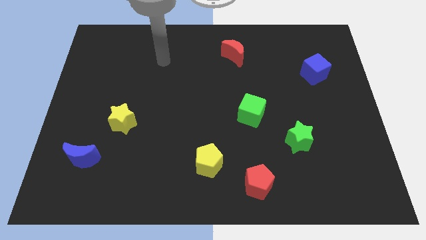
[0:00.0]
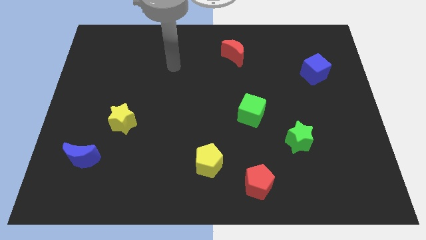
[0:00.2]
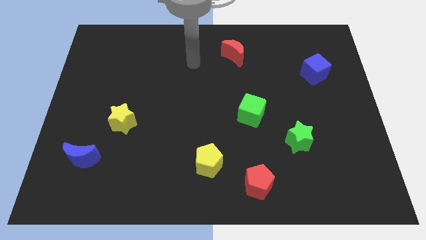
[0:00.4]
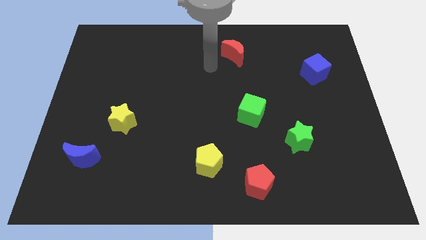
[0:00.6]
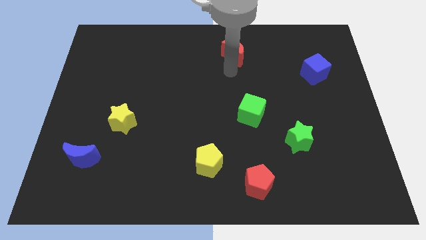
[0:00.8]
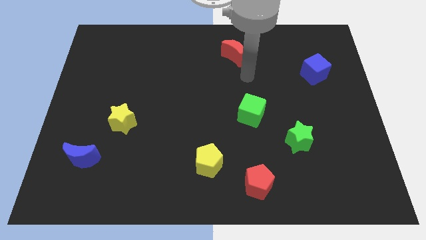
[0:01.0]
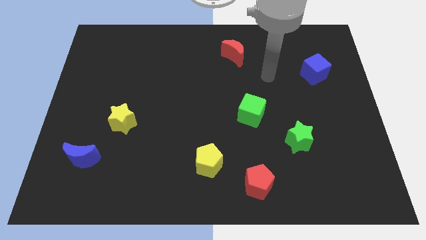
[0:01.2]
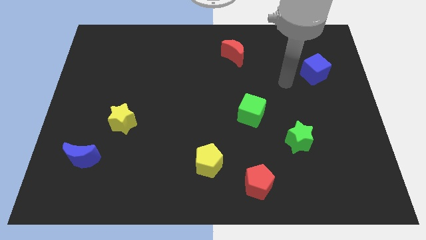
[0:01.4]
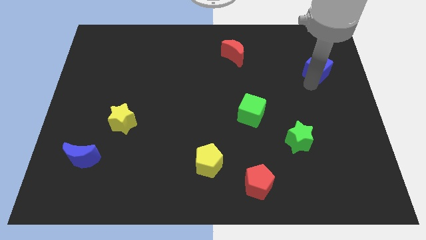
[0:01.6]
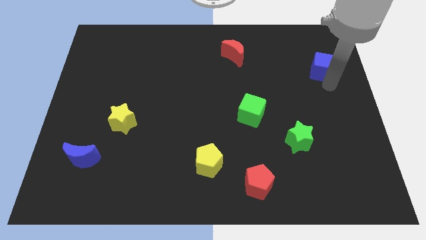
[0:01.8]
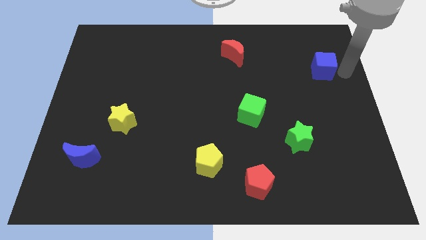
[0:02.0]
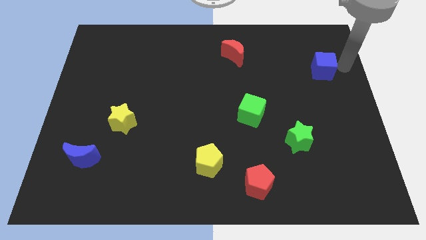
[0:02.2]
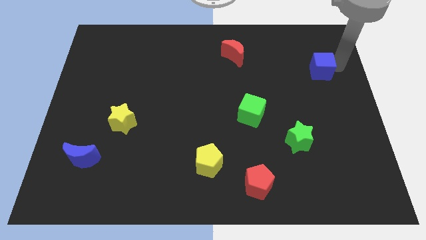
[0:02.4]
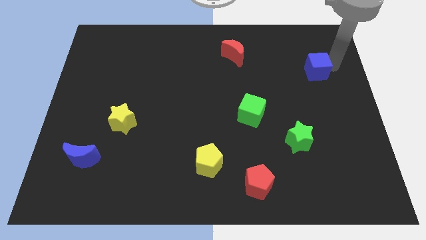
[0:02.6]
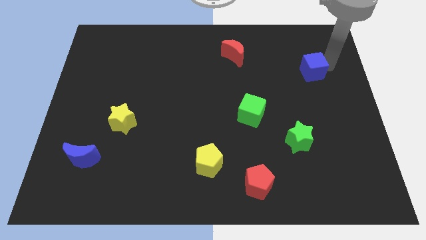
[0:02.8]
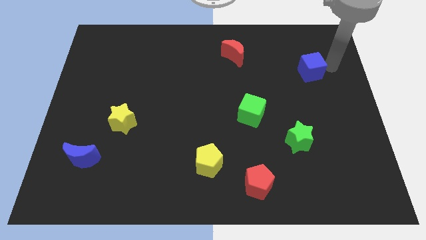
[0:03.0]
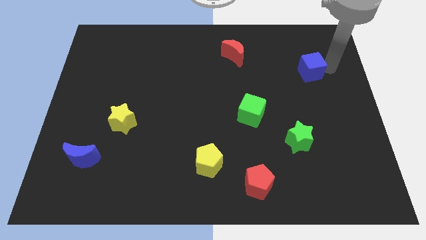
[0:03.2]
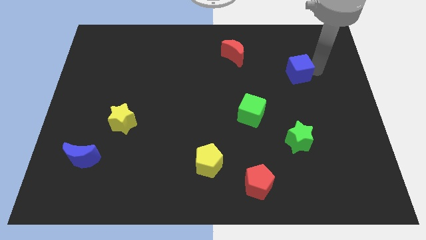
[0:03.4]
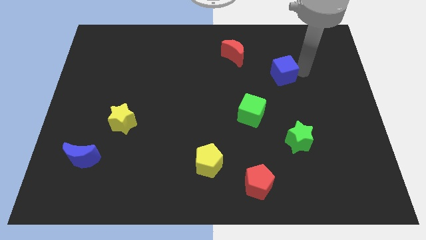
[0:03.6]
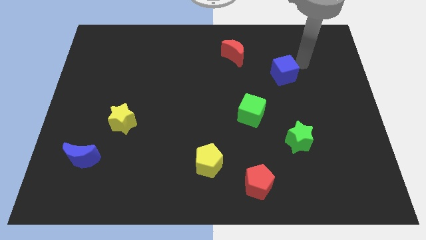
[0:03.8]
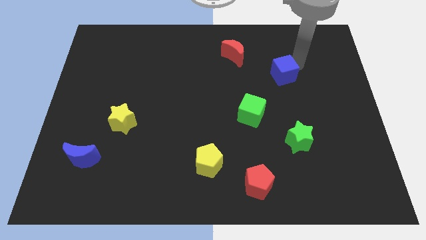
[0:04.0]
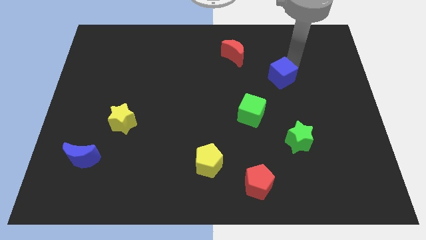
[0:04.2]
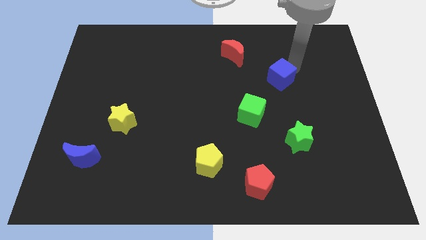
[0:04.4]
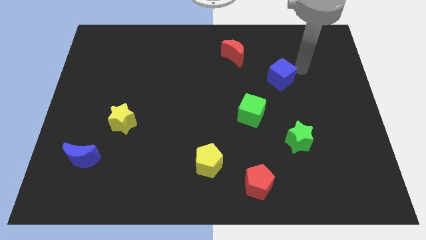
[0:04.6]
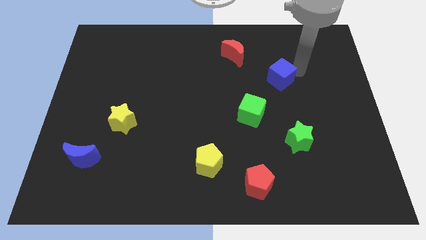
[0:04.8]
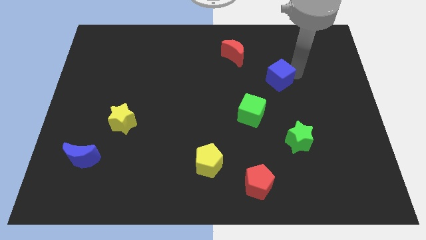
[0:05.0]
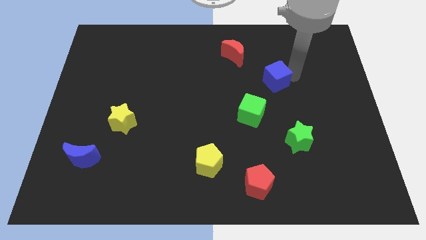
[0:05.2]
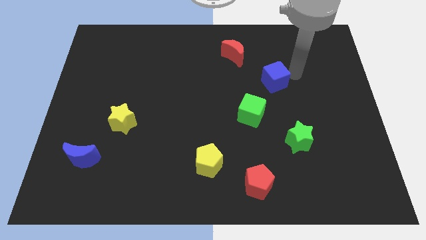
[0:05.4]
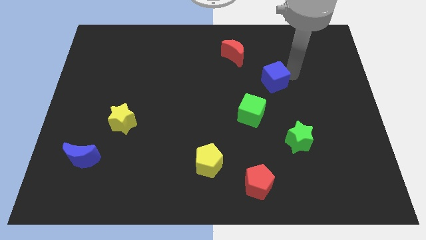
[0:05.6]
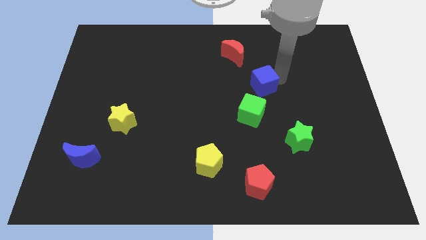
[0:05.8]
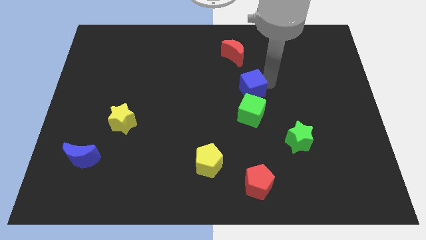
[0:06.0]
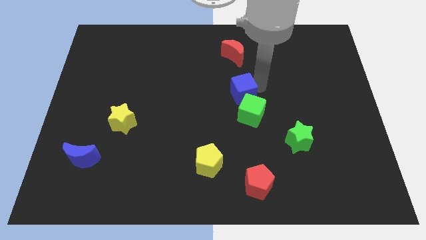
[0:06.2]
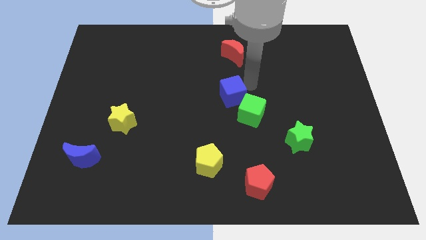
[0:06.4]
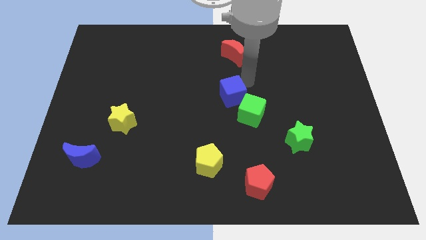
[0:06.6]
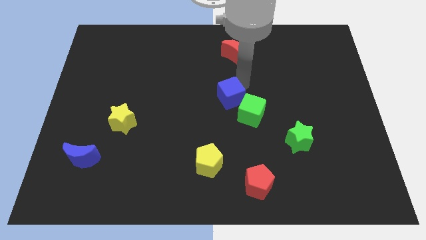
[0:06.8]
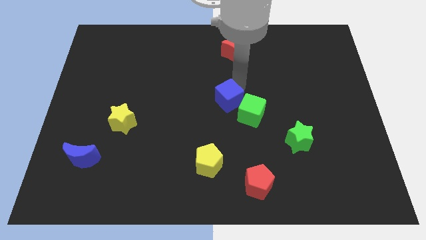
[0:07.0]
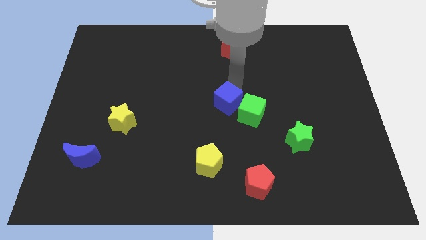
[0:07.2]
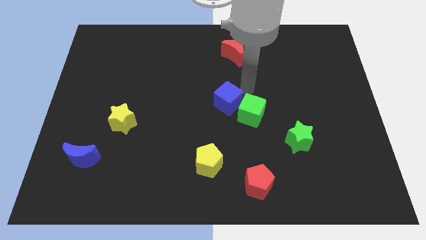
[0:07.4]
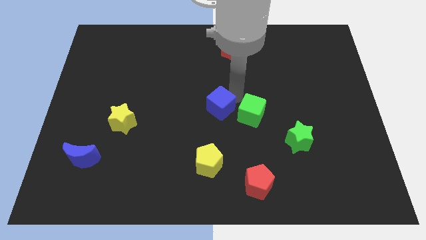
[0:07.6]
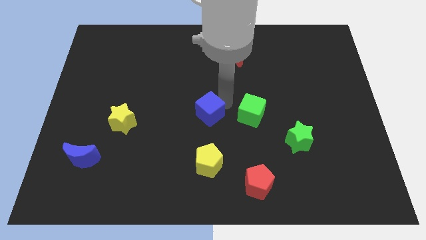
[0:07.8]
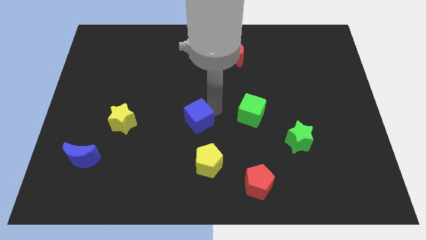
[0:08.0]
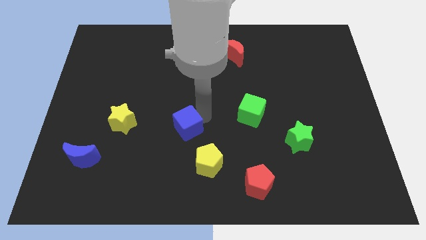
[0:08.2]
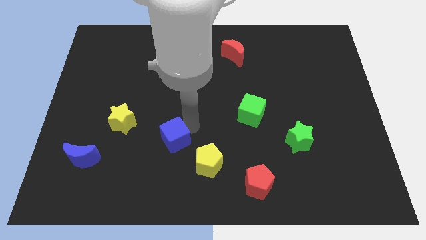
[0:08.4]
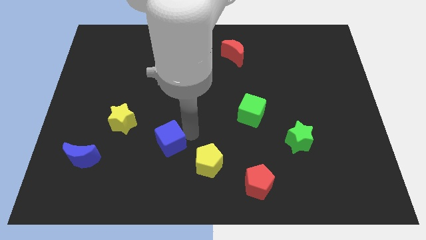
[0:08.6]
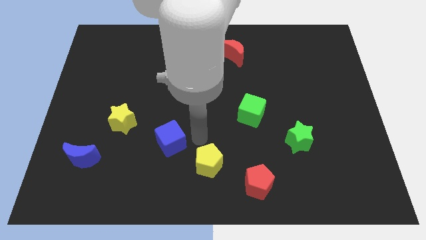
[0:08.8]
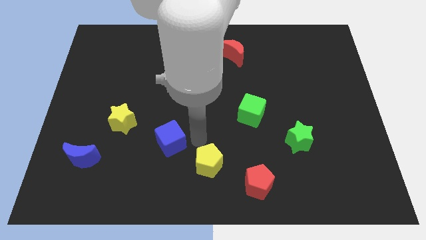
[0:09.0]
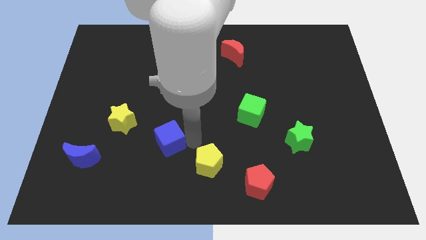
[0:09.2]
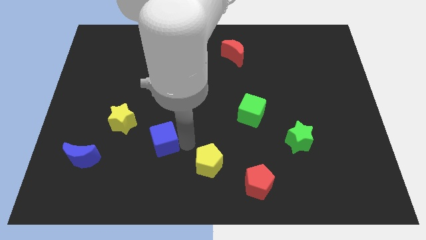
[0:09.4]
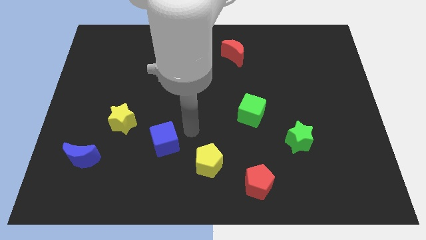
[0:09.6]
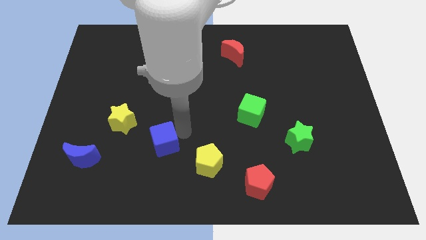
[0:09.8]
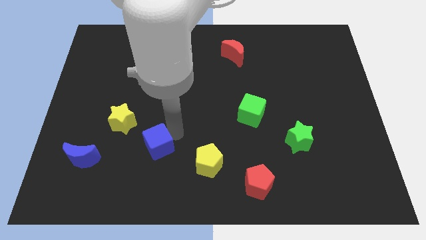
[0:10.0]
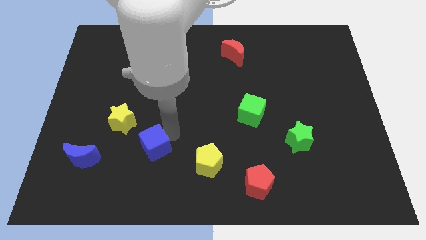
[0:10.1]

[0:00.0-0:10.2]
push the blue cube right of the blue moon

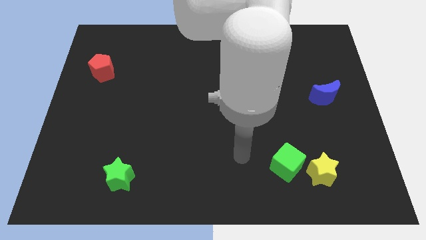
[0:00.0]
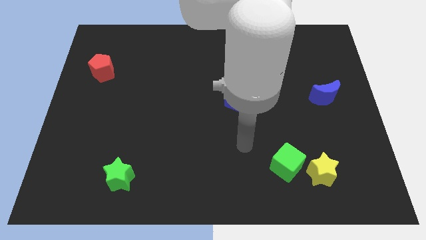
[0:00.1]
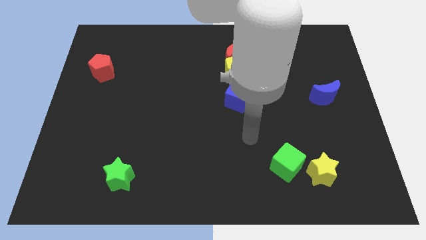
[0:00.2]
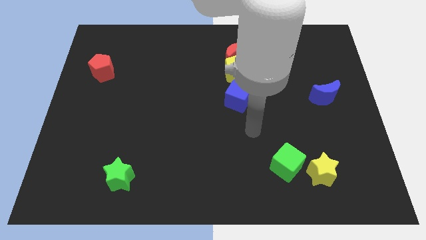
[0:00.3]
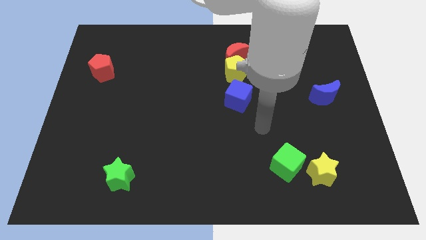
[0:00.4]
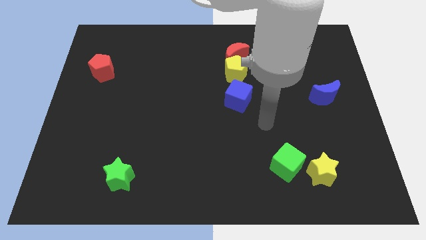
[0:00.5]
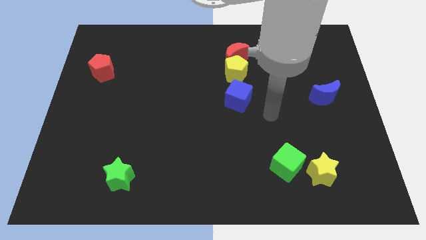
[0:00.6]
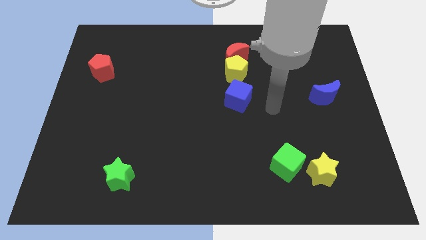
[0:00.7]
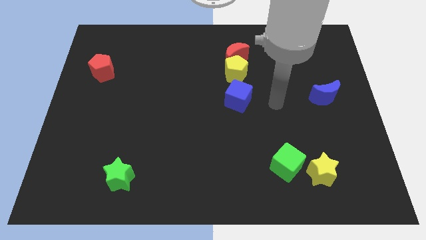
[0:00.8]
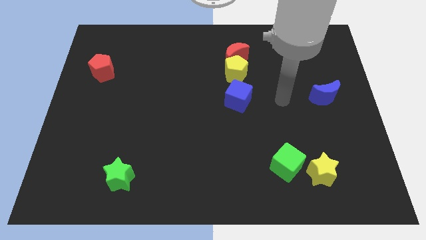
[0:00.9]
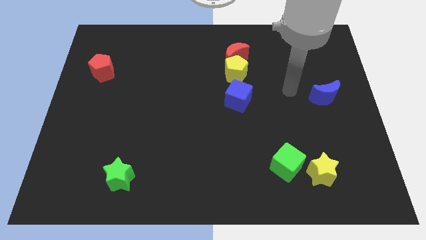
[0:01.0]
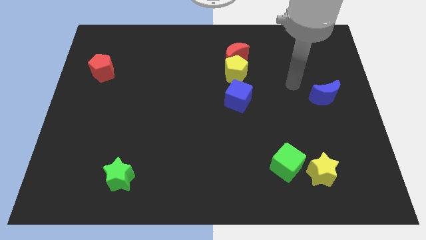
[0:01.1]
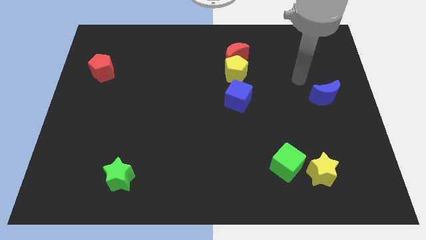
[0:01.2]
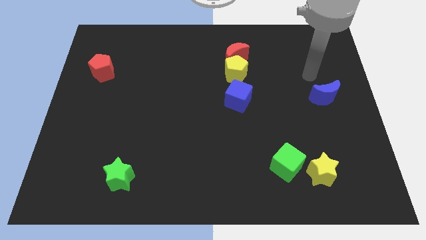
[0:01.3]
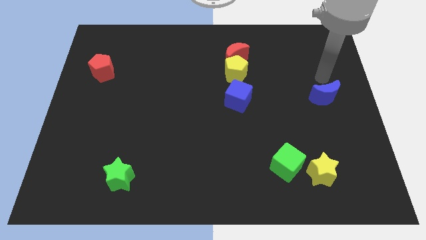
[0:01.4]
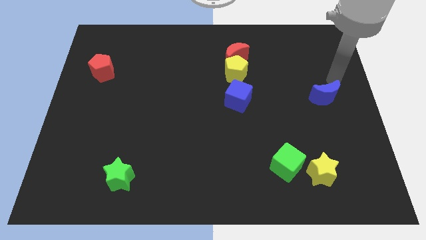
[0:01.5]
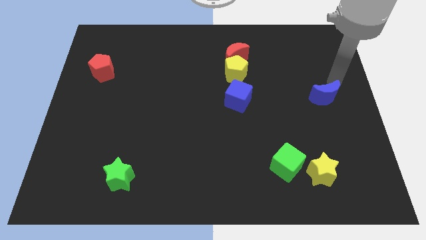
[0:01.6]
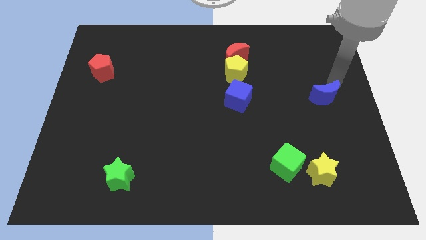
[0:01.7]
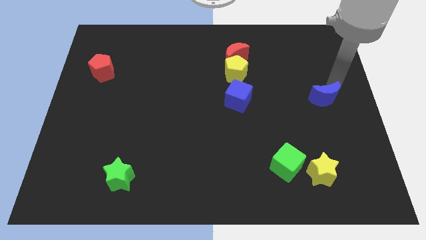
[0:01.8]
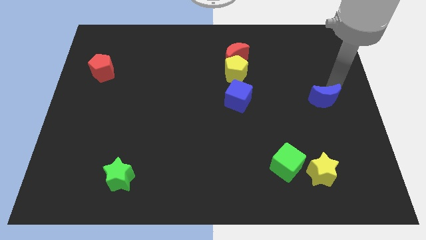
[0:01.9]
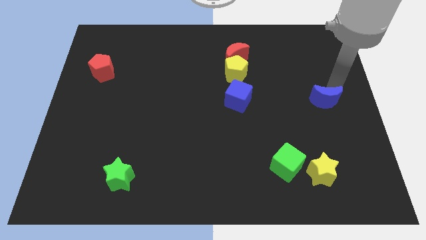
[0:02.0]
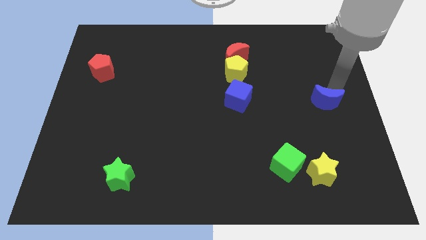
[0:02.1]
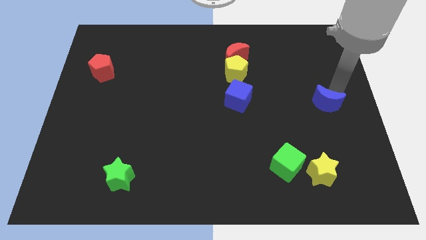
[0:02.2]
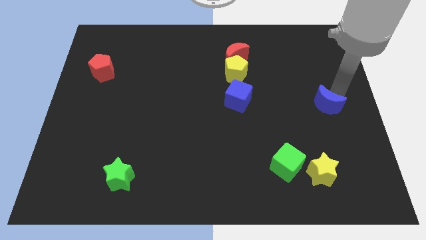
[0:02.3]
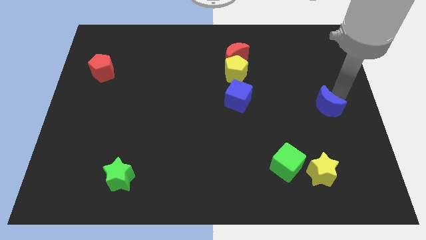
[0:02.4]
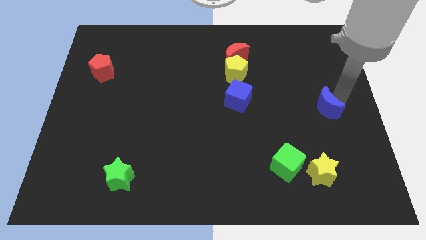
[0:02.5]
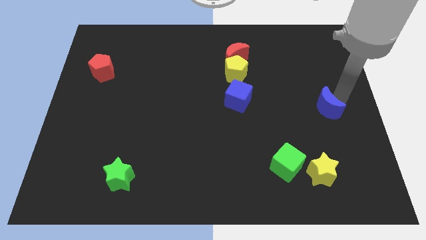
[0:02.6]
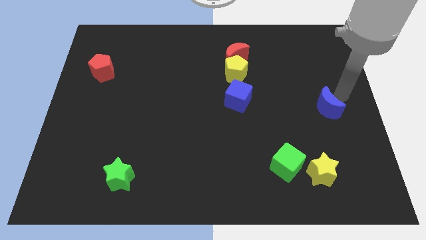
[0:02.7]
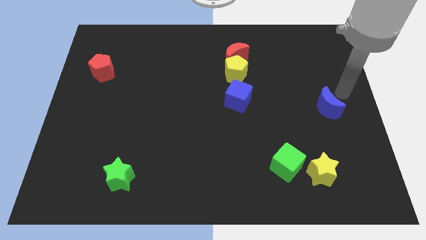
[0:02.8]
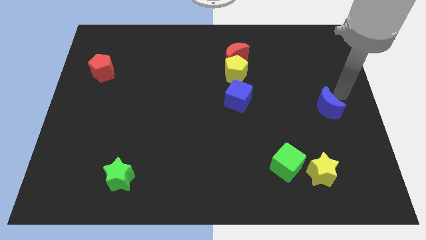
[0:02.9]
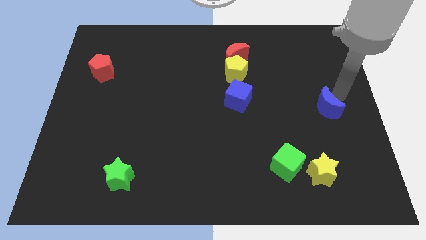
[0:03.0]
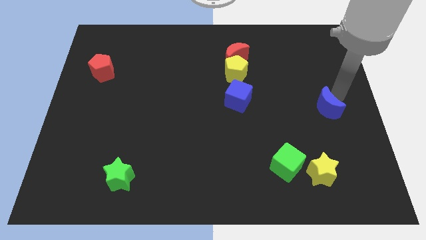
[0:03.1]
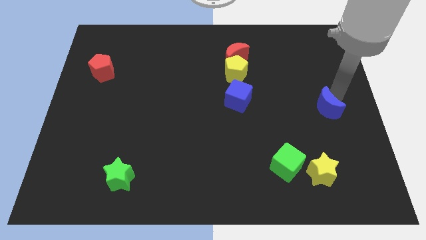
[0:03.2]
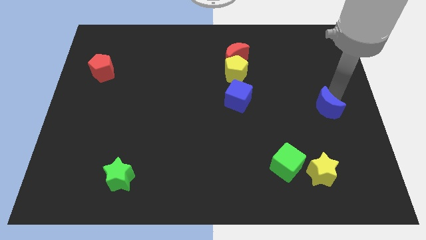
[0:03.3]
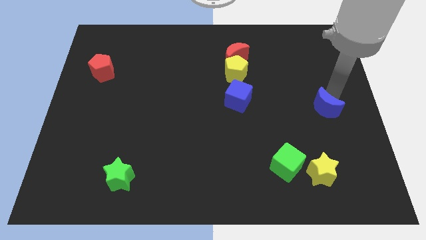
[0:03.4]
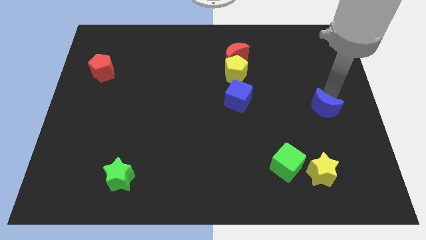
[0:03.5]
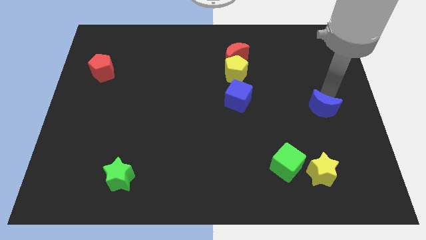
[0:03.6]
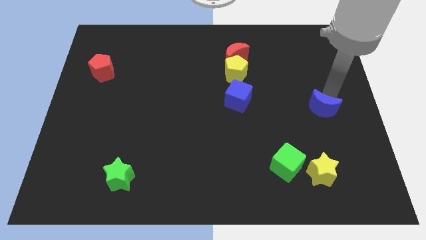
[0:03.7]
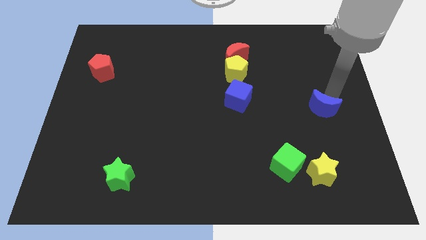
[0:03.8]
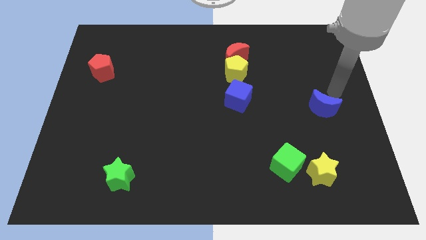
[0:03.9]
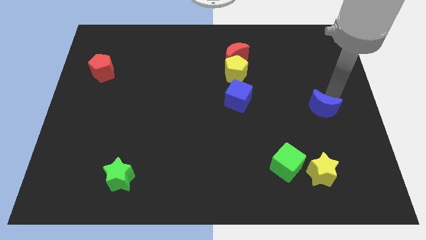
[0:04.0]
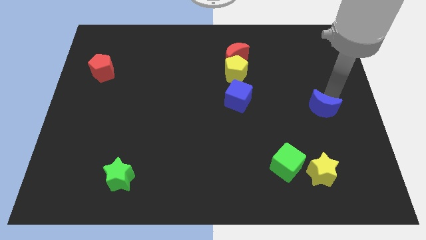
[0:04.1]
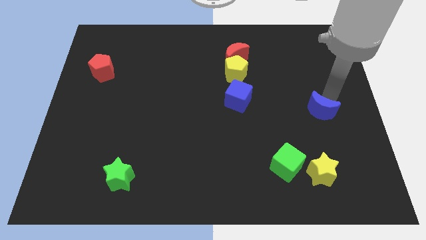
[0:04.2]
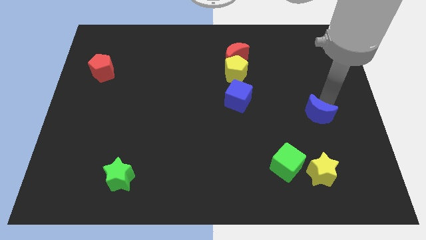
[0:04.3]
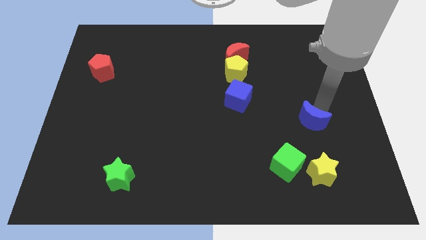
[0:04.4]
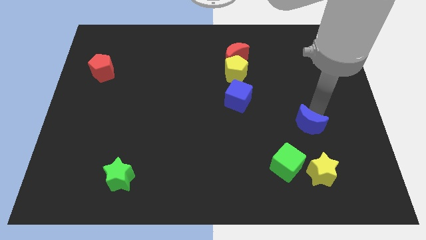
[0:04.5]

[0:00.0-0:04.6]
move the blue moon to the top right side of the green cube
